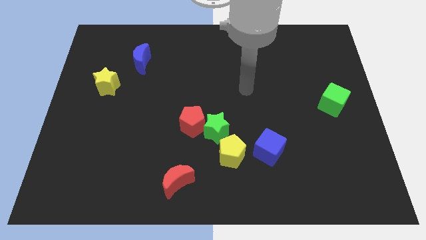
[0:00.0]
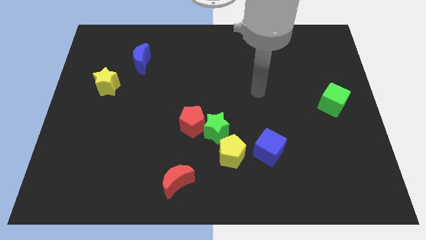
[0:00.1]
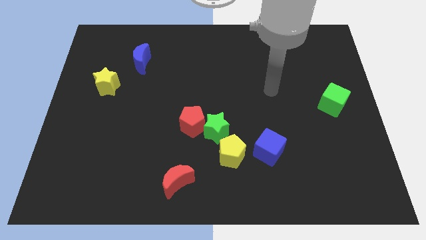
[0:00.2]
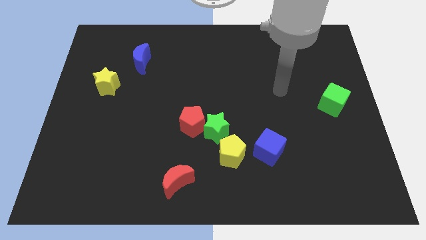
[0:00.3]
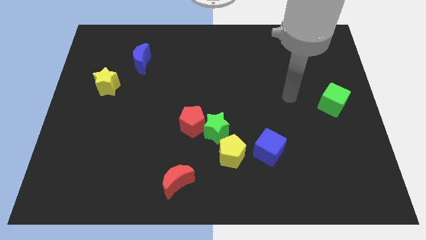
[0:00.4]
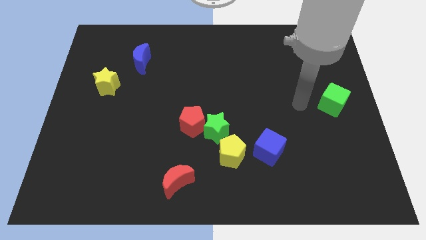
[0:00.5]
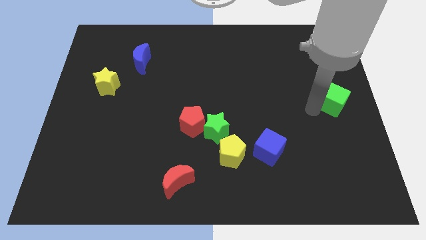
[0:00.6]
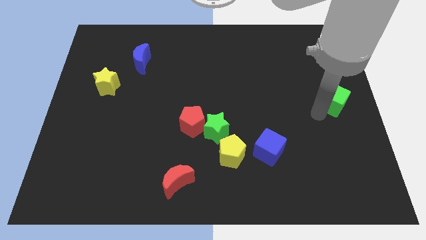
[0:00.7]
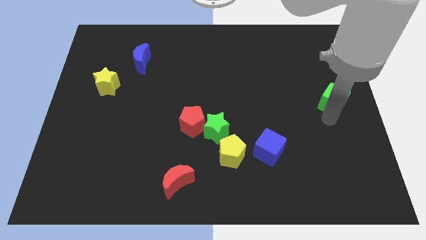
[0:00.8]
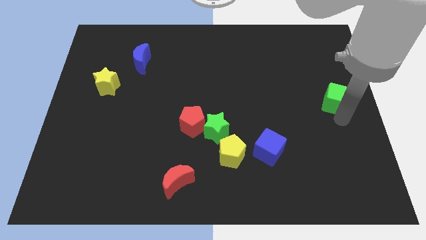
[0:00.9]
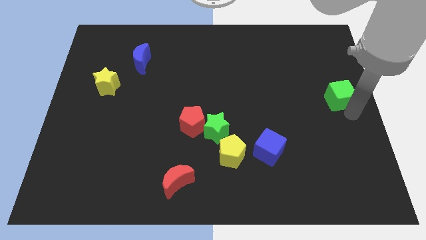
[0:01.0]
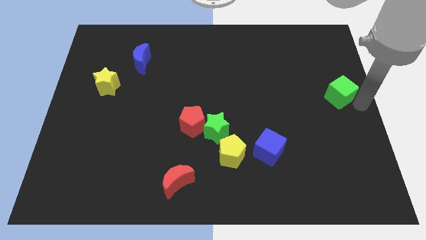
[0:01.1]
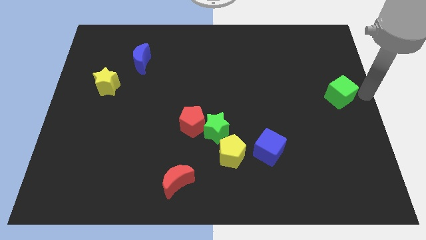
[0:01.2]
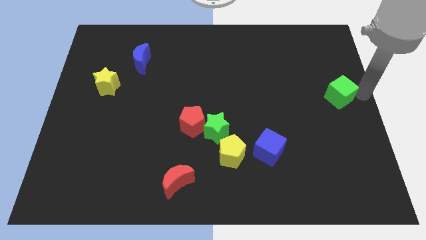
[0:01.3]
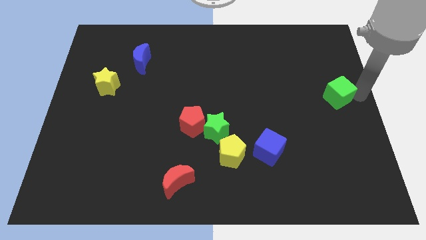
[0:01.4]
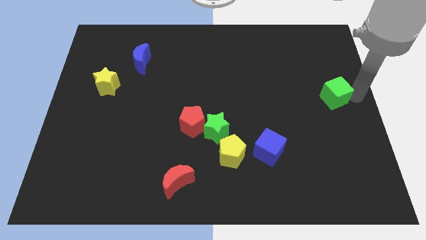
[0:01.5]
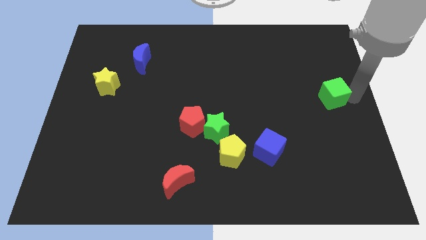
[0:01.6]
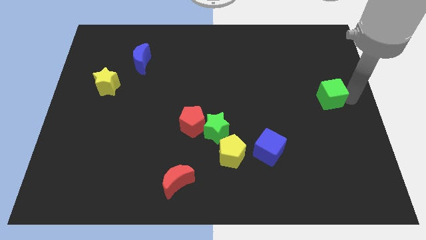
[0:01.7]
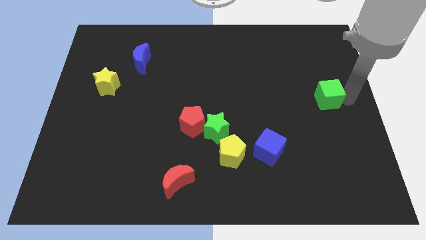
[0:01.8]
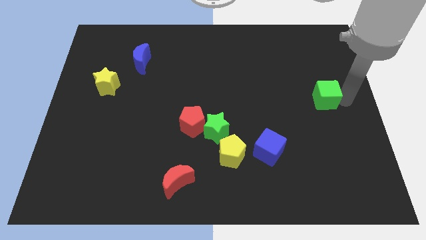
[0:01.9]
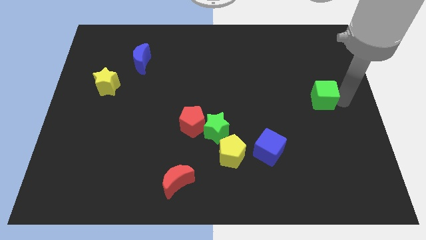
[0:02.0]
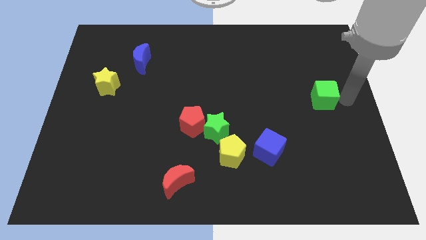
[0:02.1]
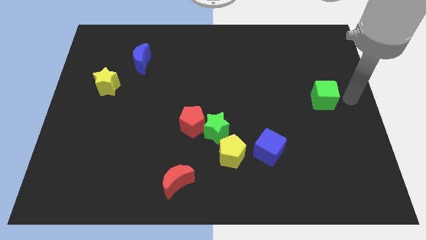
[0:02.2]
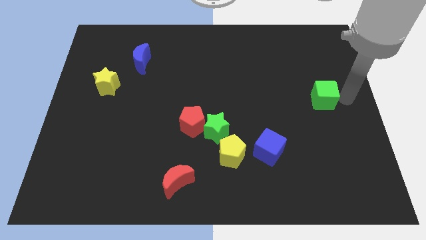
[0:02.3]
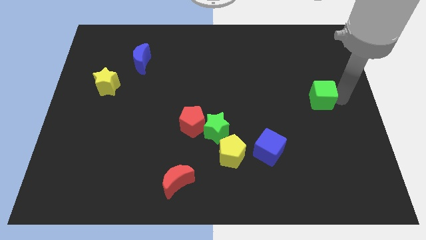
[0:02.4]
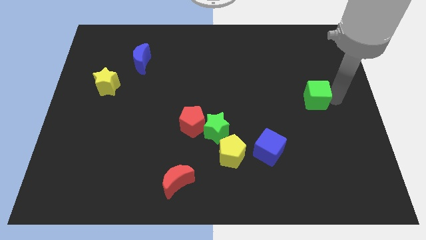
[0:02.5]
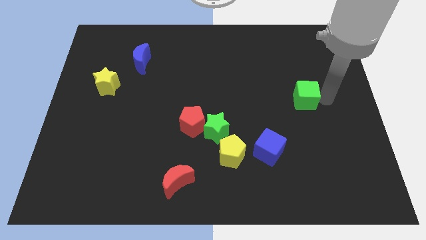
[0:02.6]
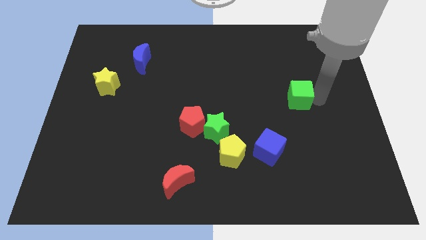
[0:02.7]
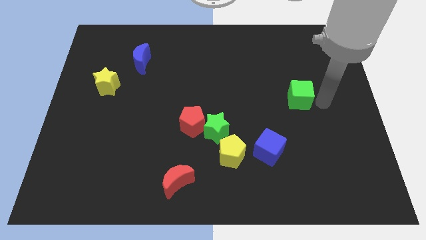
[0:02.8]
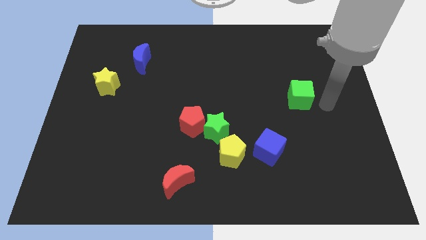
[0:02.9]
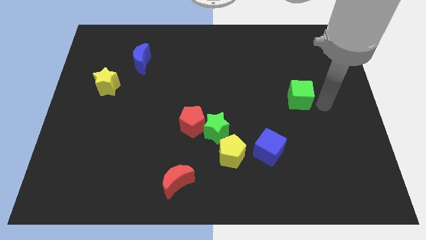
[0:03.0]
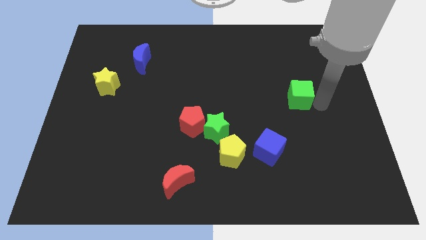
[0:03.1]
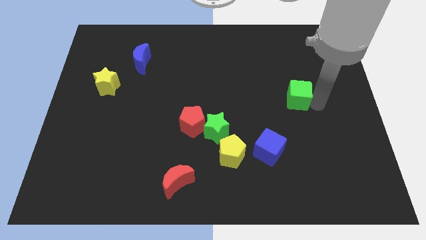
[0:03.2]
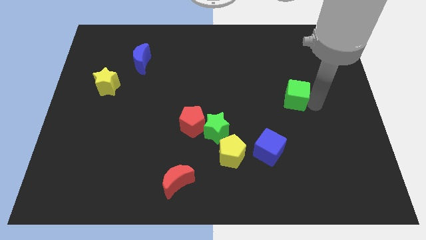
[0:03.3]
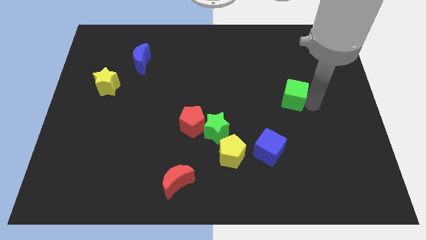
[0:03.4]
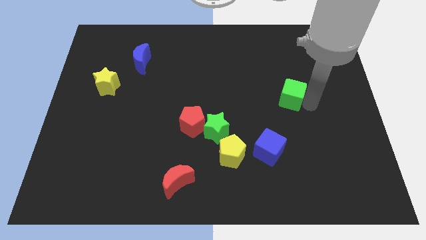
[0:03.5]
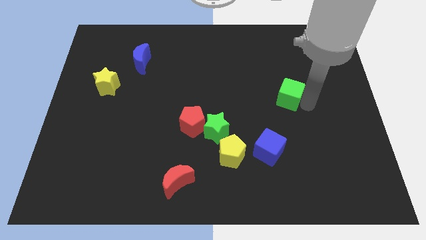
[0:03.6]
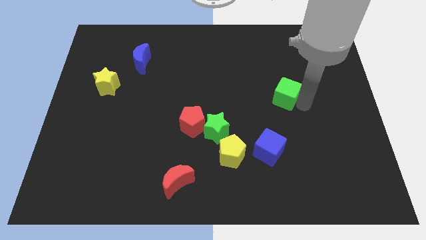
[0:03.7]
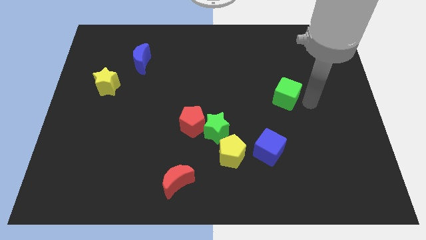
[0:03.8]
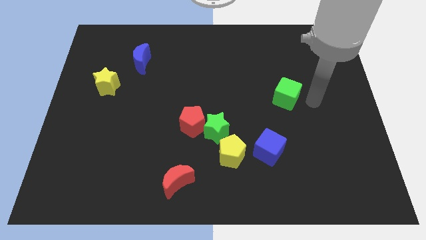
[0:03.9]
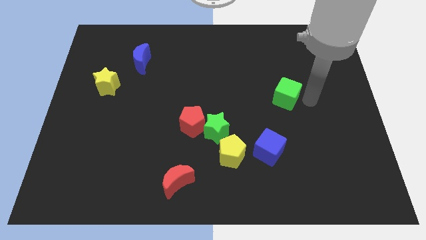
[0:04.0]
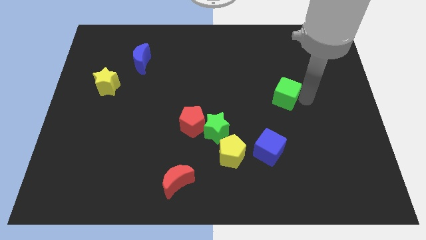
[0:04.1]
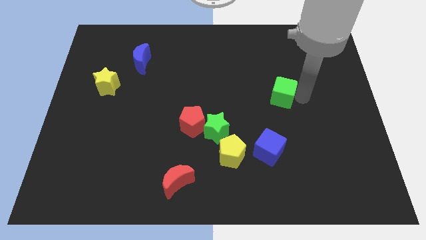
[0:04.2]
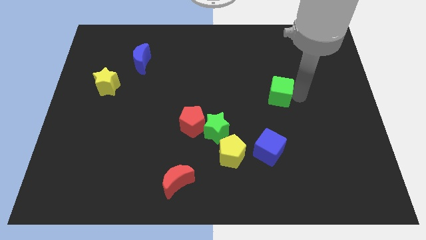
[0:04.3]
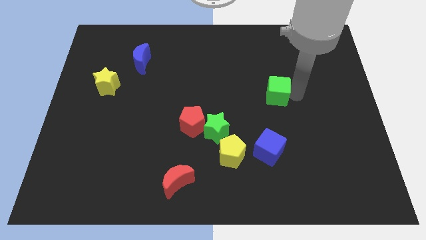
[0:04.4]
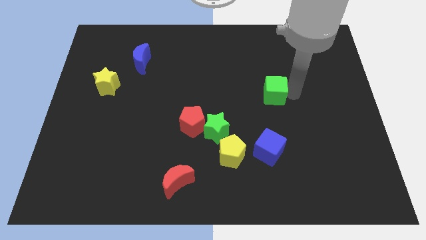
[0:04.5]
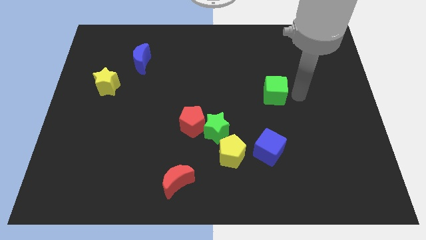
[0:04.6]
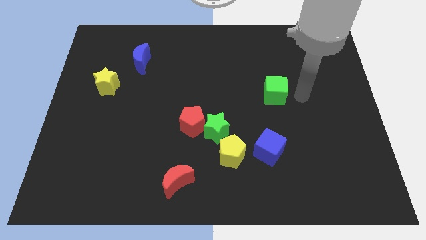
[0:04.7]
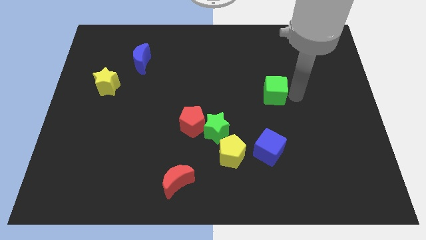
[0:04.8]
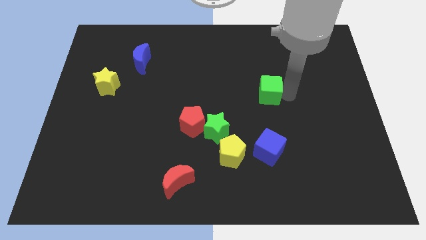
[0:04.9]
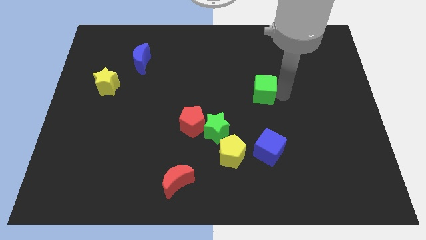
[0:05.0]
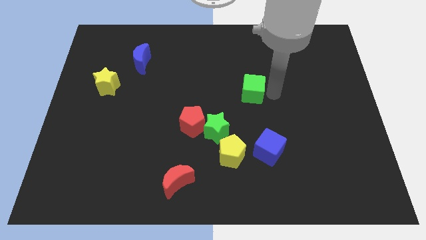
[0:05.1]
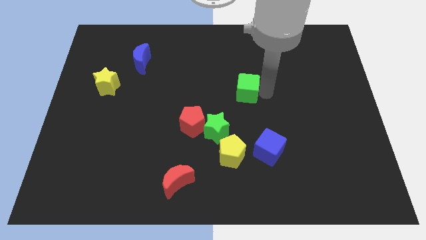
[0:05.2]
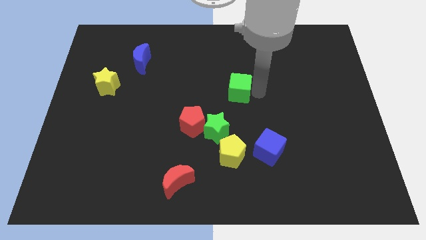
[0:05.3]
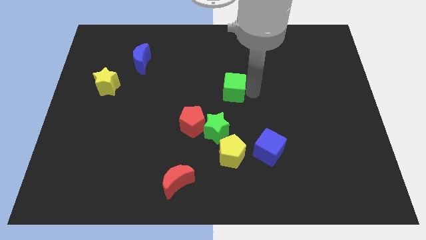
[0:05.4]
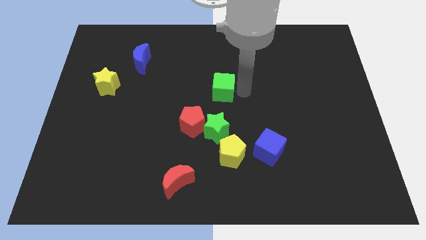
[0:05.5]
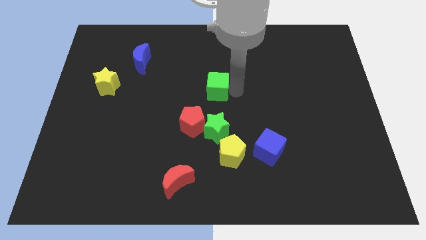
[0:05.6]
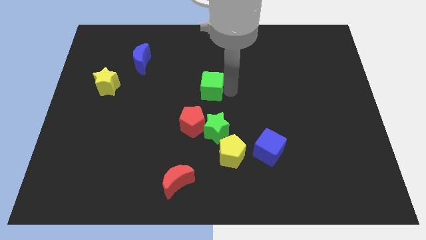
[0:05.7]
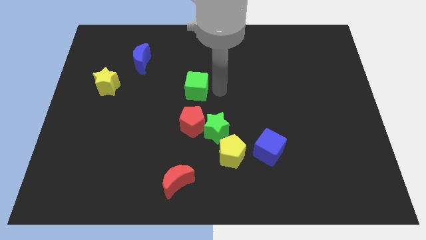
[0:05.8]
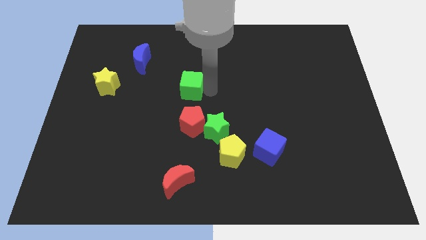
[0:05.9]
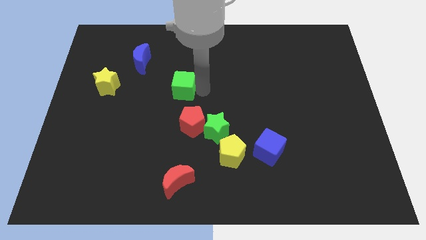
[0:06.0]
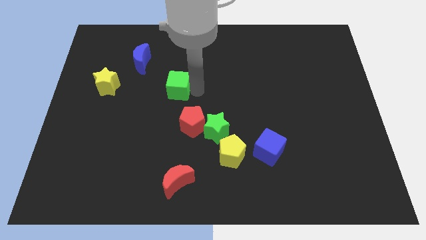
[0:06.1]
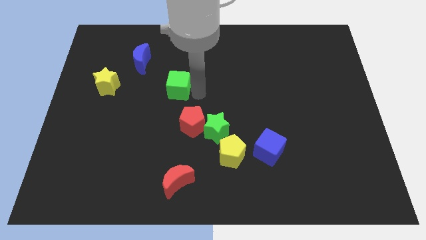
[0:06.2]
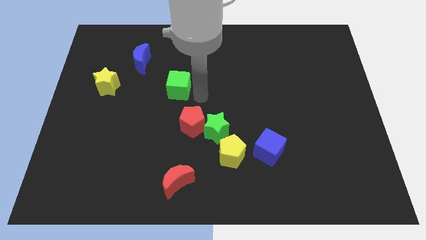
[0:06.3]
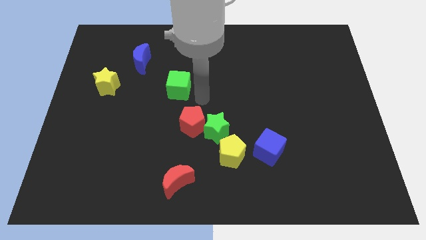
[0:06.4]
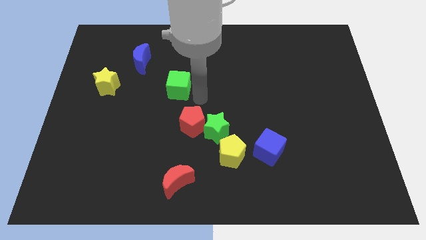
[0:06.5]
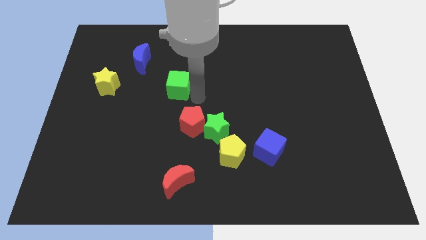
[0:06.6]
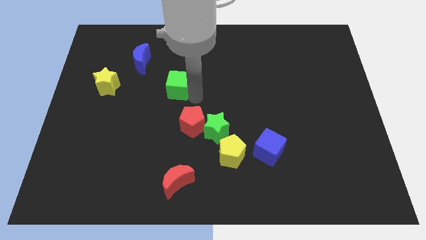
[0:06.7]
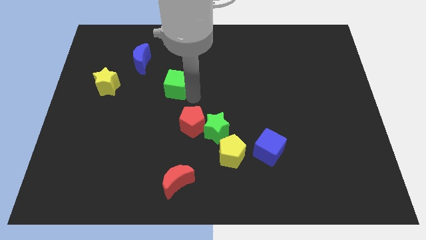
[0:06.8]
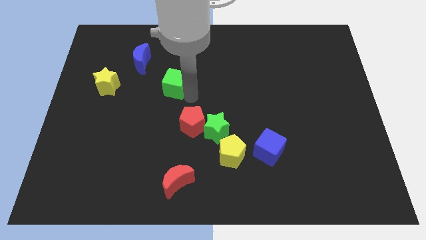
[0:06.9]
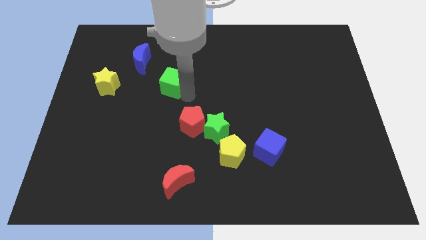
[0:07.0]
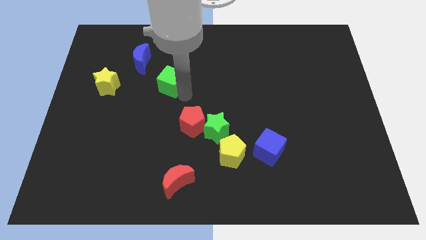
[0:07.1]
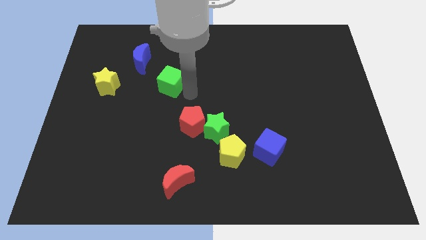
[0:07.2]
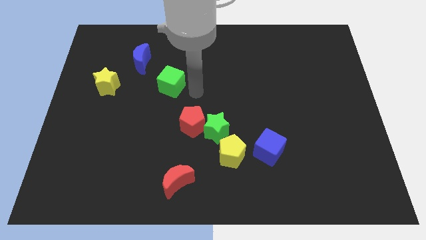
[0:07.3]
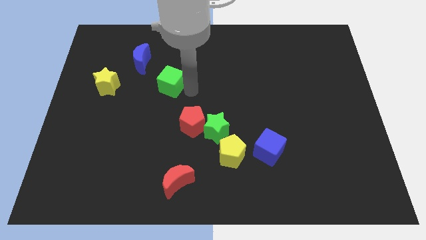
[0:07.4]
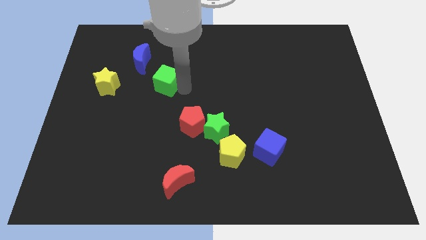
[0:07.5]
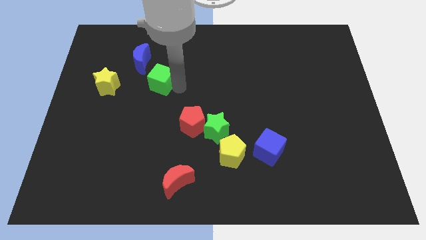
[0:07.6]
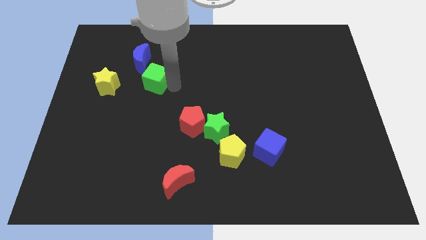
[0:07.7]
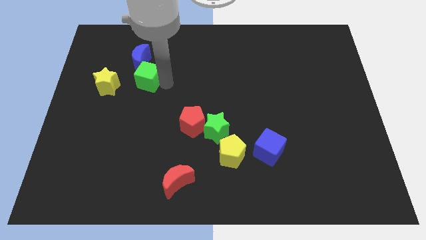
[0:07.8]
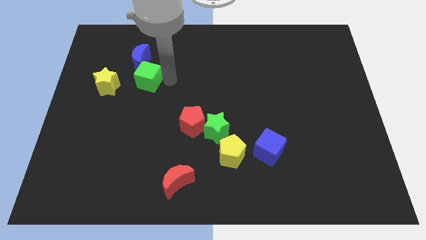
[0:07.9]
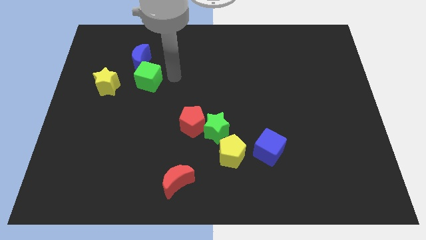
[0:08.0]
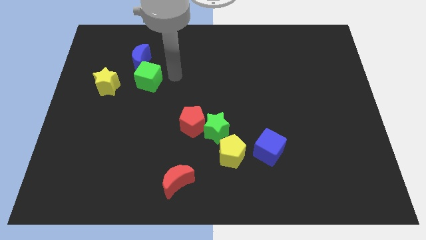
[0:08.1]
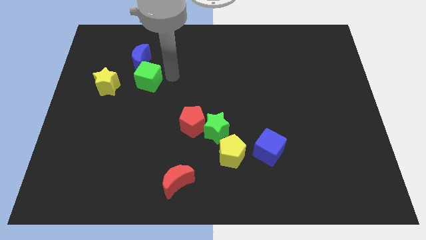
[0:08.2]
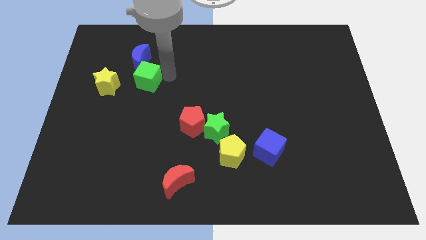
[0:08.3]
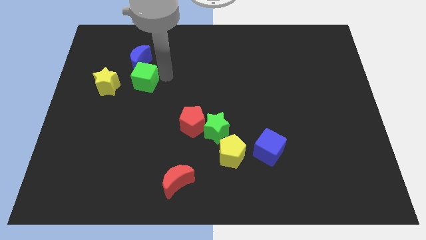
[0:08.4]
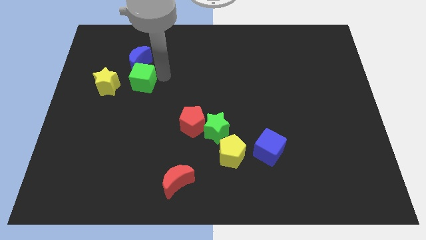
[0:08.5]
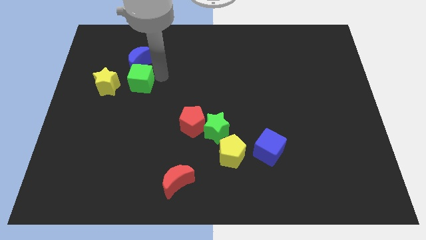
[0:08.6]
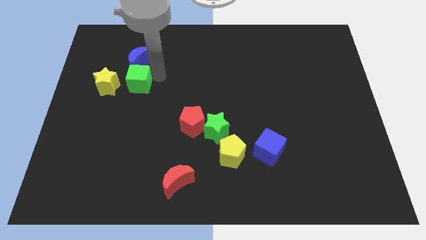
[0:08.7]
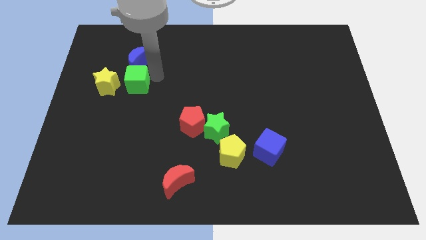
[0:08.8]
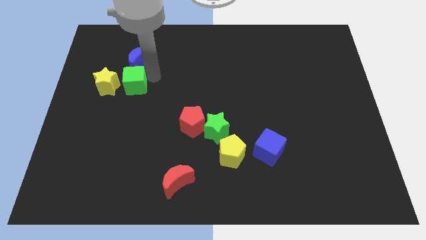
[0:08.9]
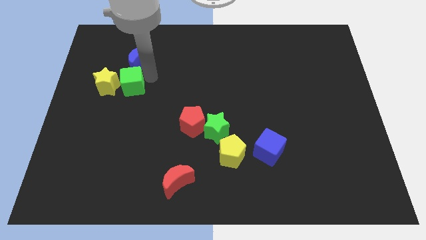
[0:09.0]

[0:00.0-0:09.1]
slide the green cube to the yellow star
